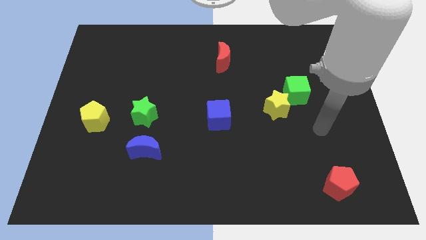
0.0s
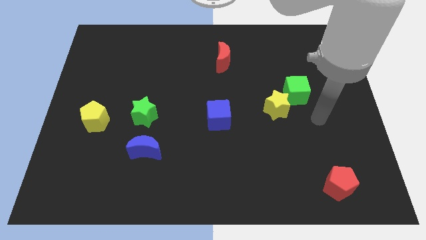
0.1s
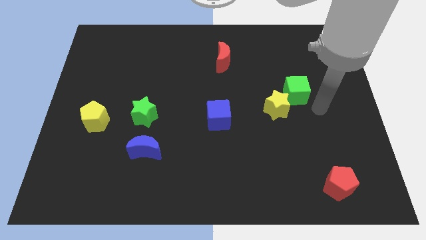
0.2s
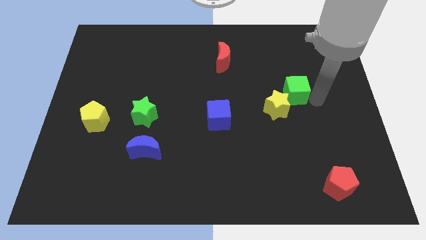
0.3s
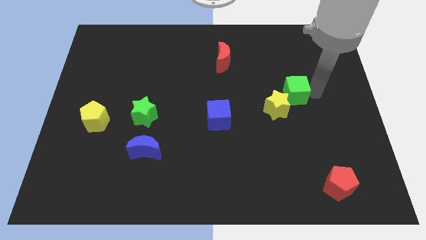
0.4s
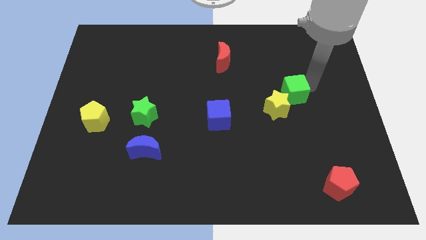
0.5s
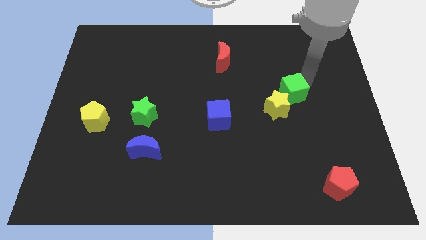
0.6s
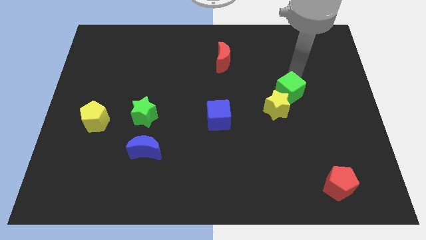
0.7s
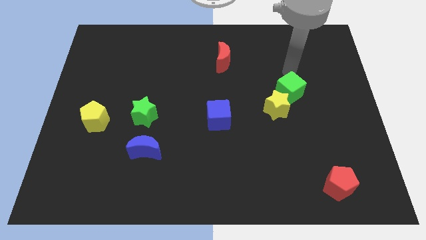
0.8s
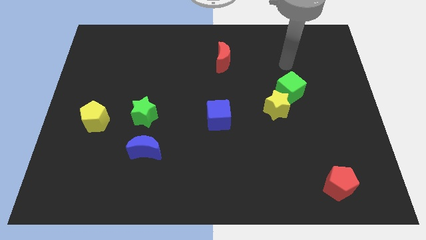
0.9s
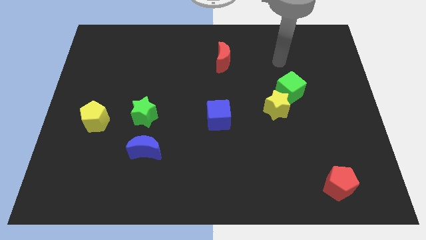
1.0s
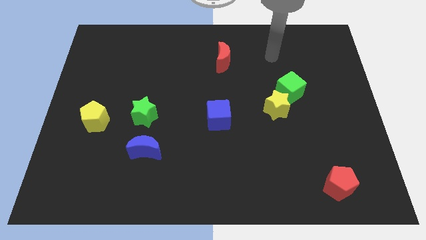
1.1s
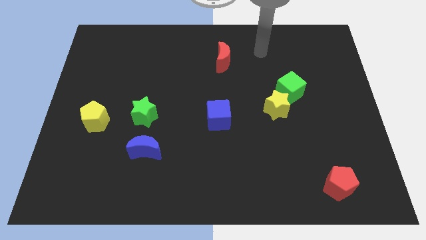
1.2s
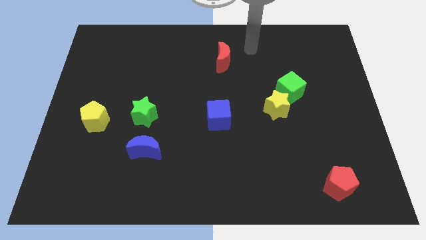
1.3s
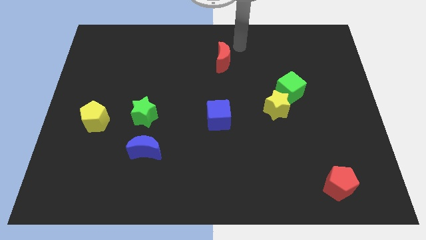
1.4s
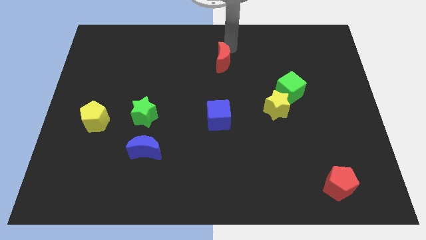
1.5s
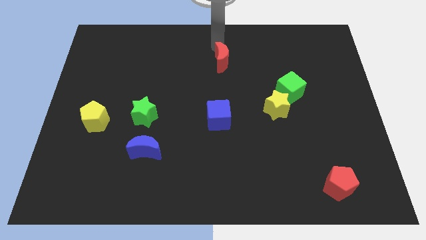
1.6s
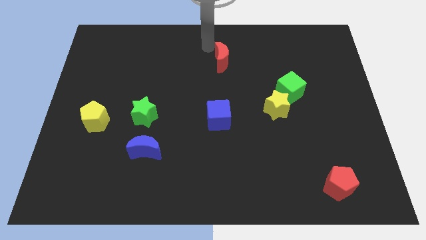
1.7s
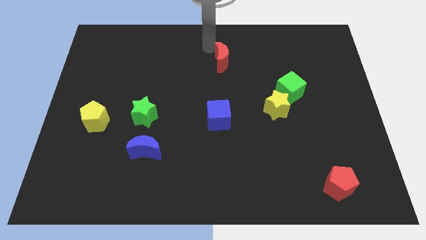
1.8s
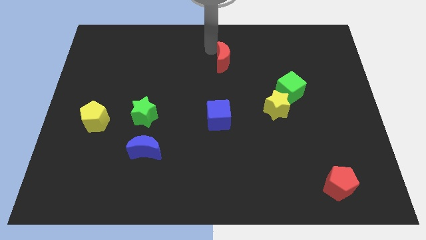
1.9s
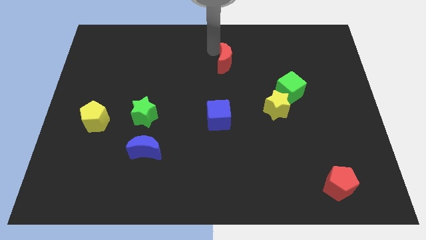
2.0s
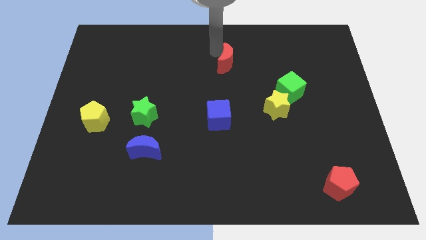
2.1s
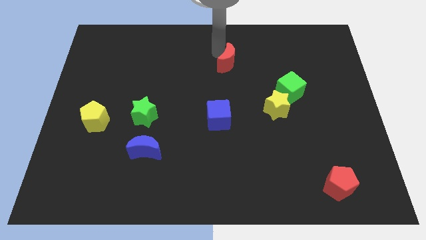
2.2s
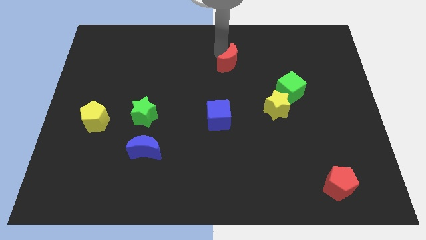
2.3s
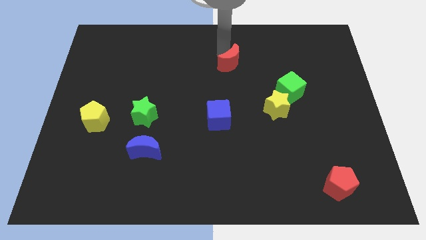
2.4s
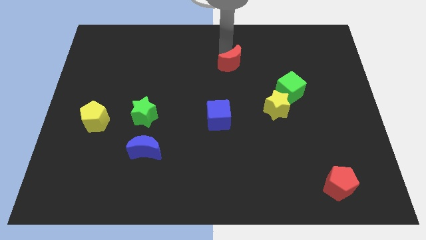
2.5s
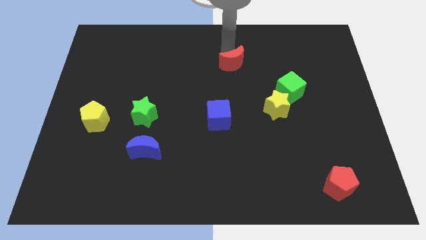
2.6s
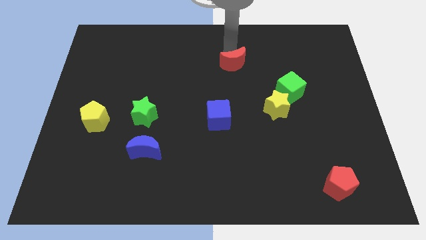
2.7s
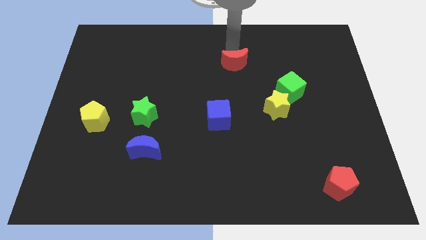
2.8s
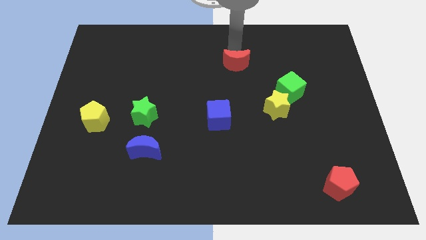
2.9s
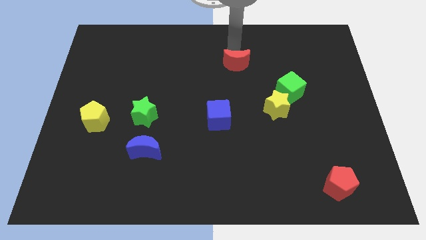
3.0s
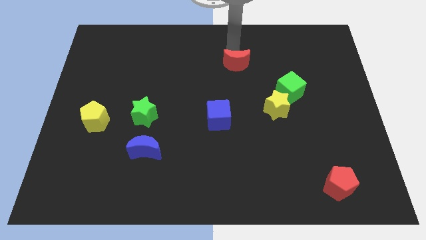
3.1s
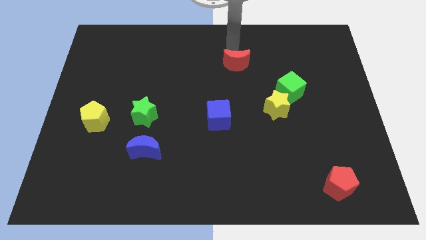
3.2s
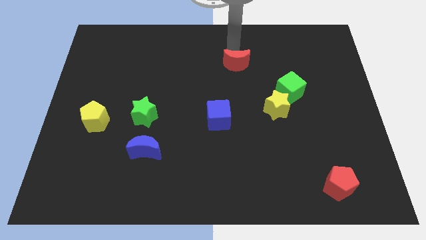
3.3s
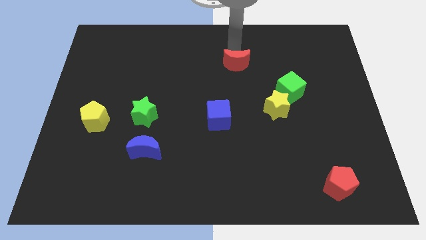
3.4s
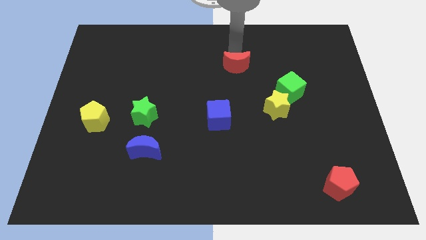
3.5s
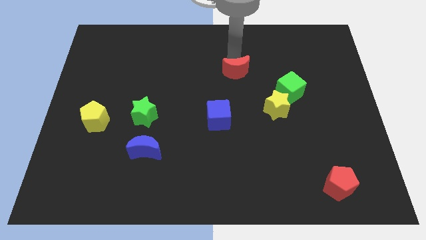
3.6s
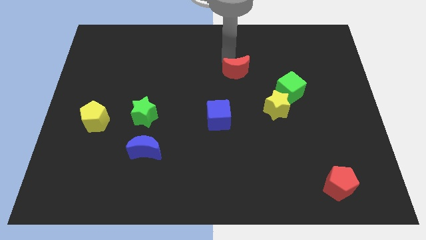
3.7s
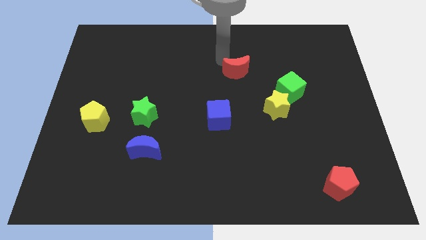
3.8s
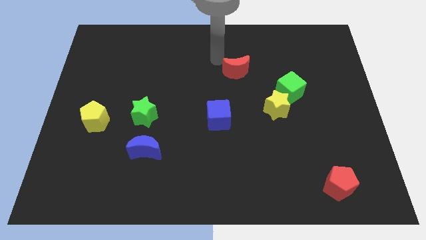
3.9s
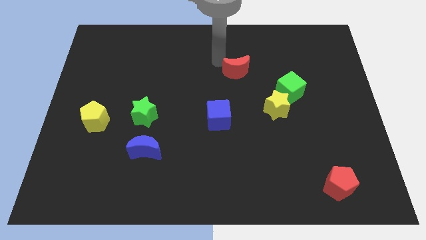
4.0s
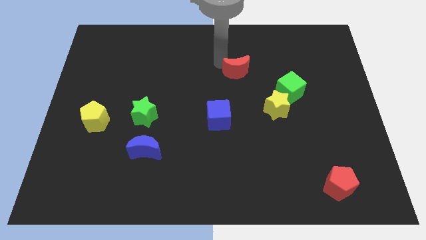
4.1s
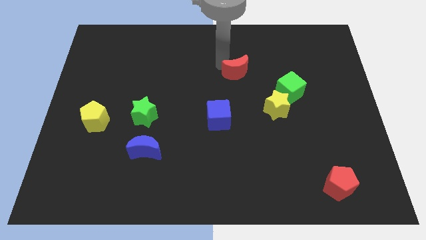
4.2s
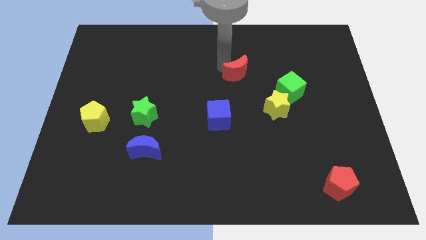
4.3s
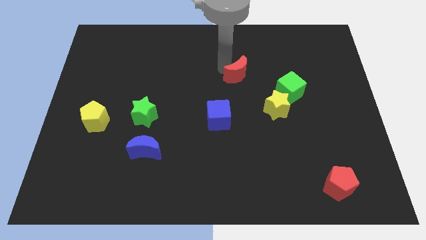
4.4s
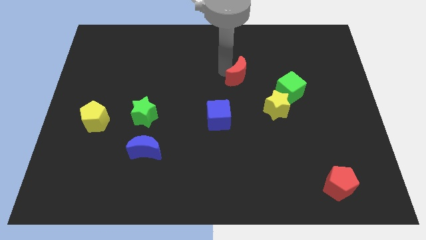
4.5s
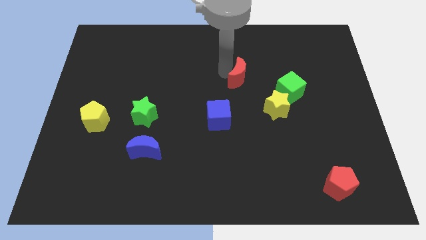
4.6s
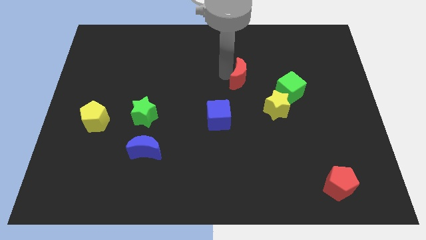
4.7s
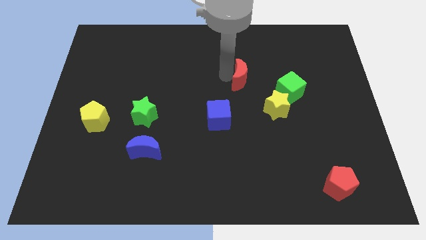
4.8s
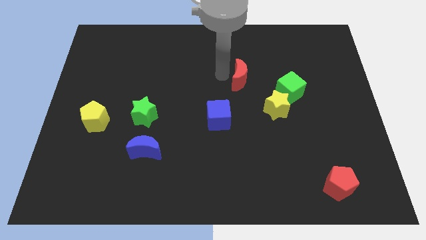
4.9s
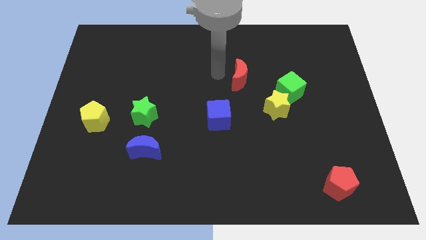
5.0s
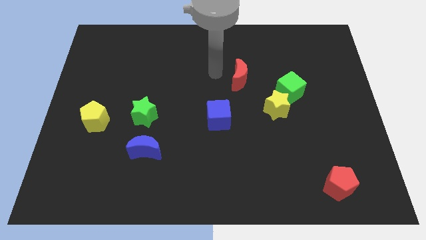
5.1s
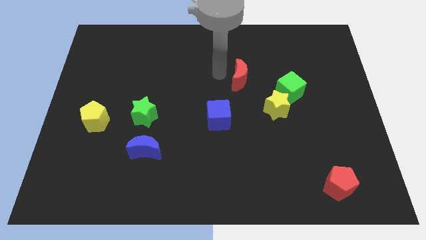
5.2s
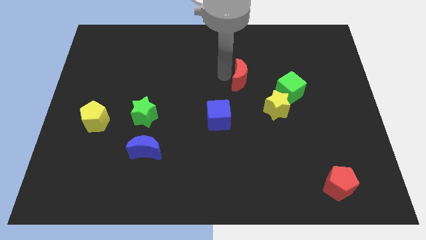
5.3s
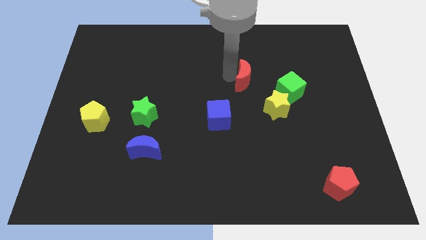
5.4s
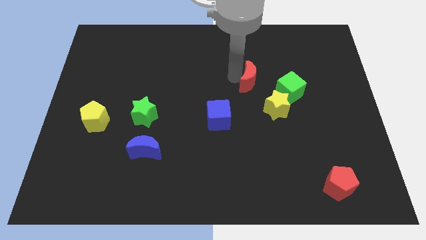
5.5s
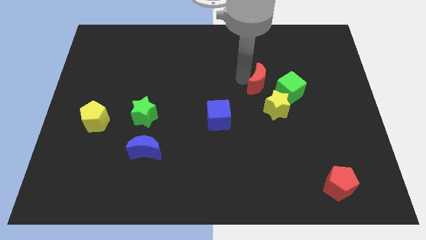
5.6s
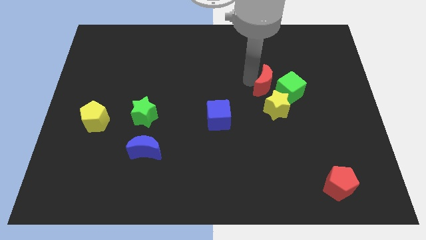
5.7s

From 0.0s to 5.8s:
push the red moon to the green cube
